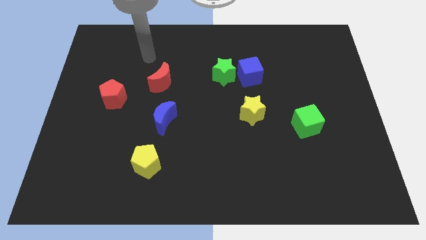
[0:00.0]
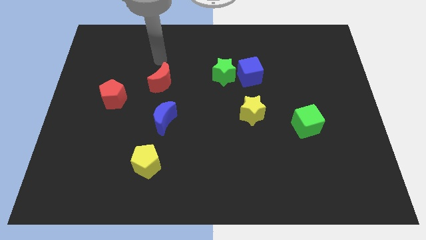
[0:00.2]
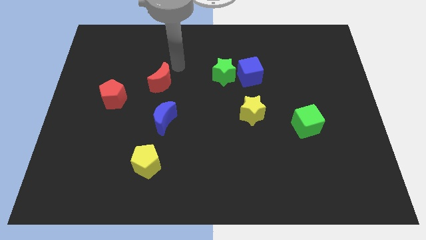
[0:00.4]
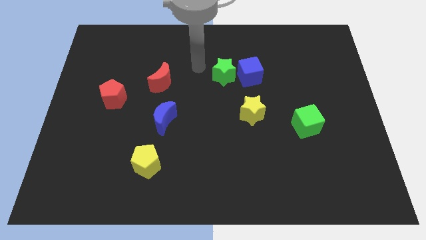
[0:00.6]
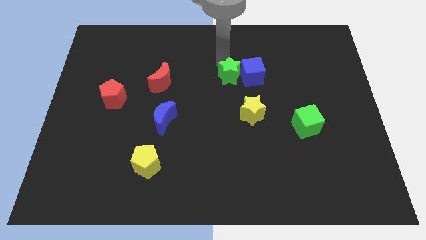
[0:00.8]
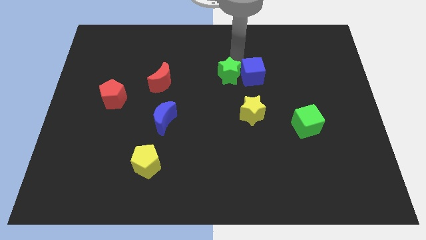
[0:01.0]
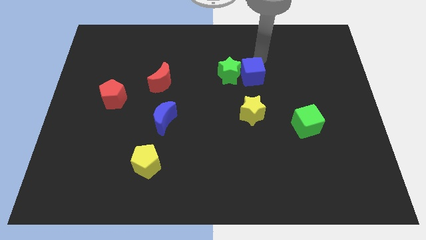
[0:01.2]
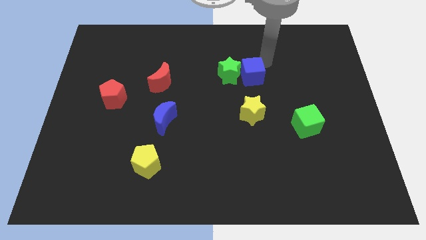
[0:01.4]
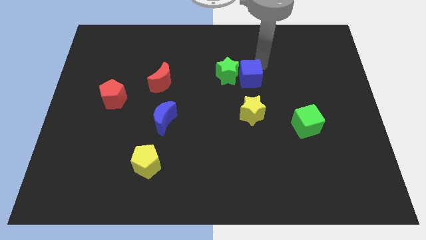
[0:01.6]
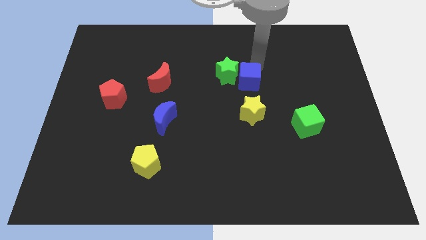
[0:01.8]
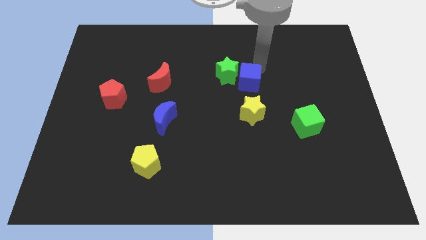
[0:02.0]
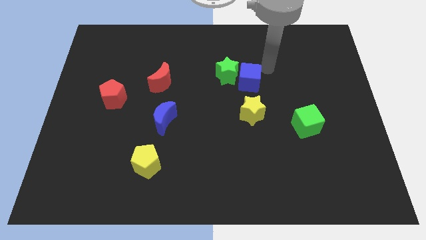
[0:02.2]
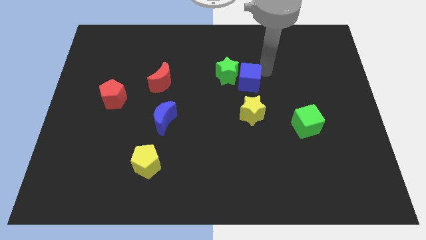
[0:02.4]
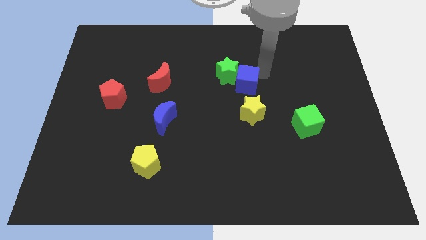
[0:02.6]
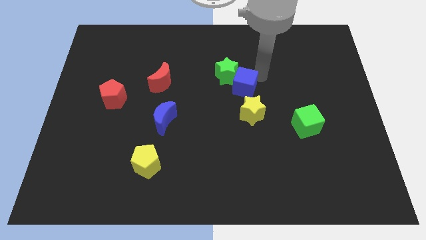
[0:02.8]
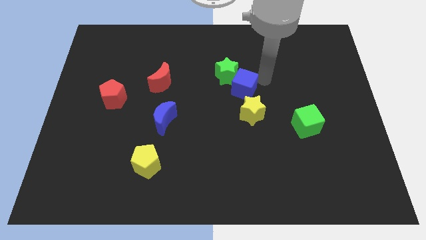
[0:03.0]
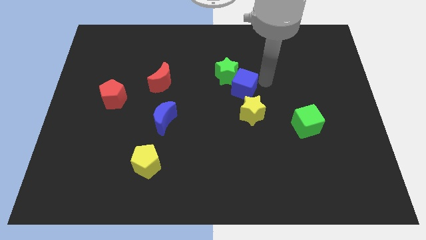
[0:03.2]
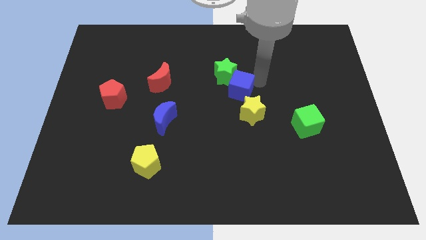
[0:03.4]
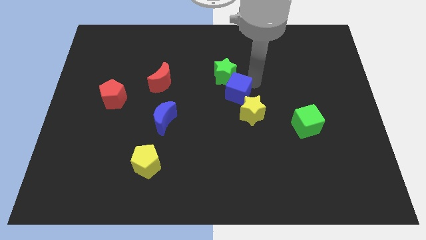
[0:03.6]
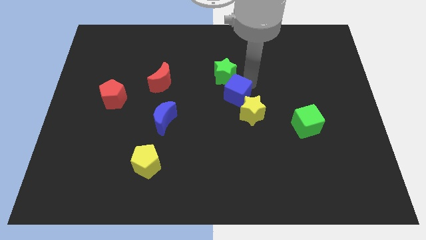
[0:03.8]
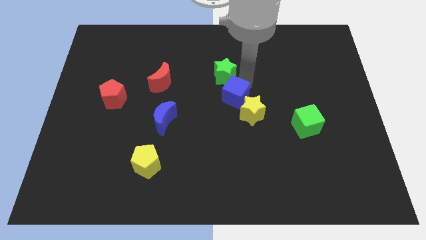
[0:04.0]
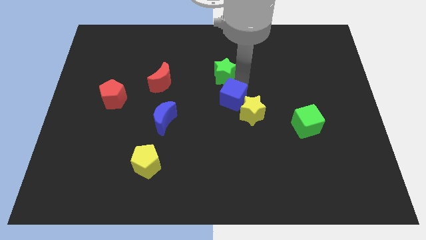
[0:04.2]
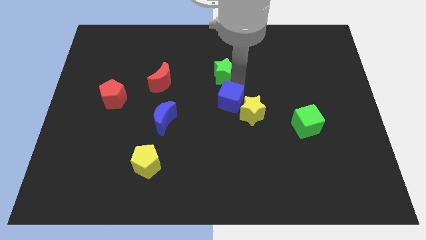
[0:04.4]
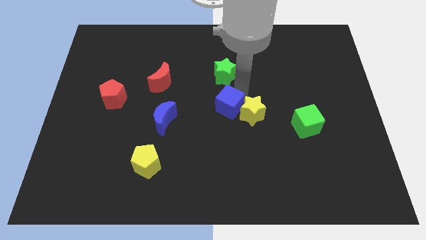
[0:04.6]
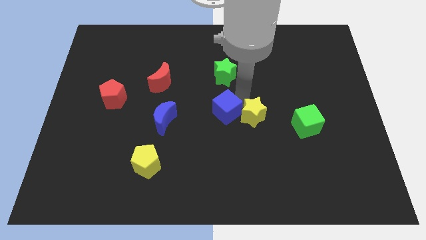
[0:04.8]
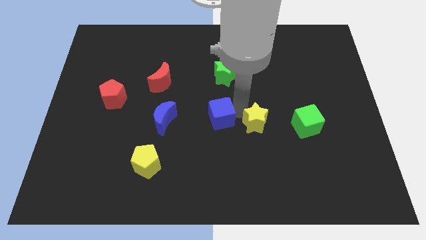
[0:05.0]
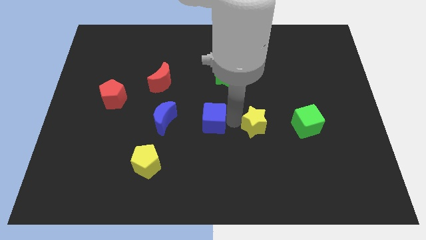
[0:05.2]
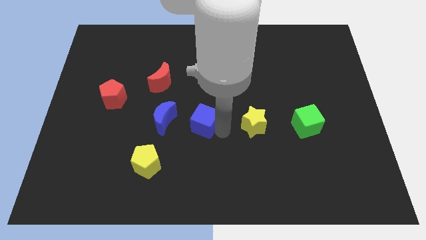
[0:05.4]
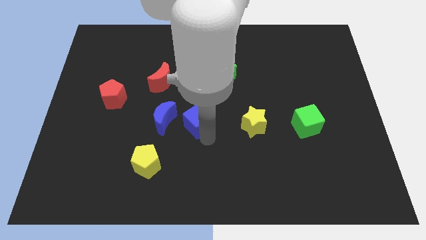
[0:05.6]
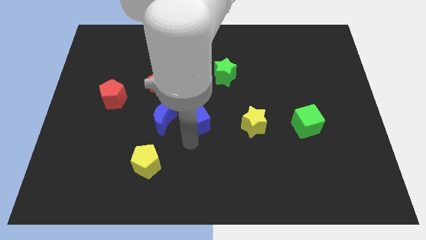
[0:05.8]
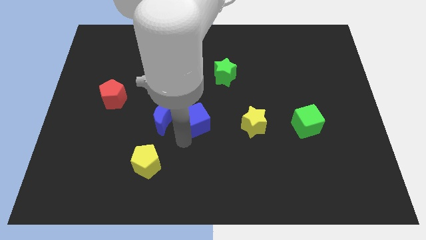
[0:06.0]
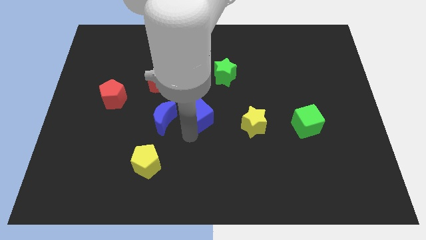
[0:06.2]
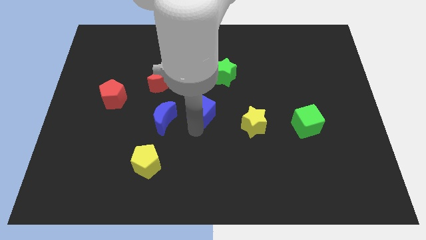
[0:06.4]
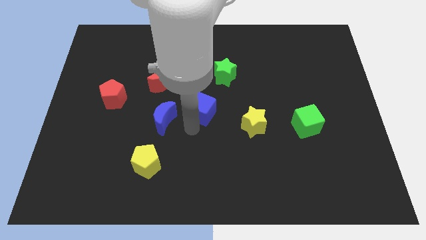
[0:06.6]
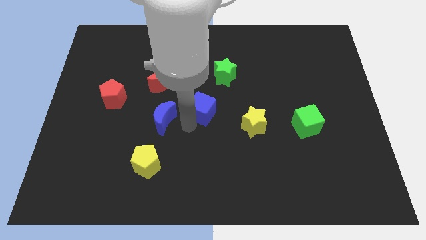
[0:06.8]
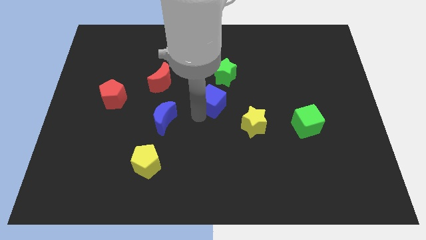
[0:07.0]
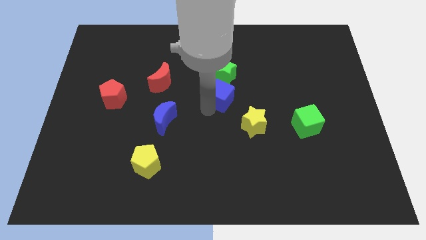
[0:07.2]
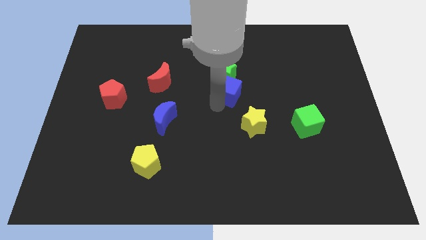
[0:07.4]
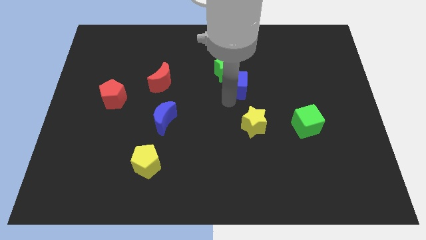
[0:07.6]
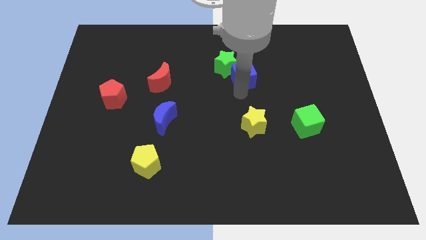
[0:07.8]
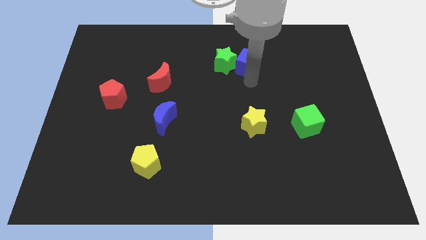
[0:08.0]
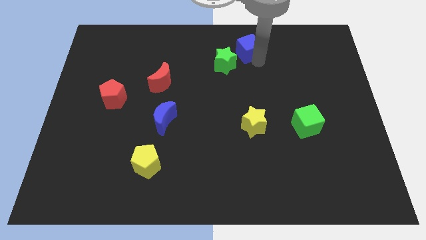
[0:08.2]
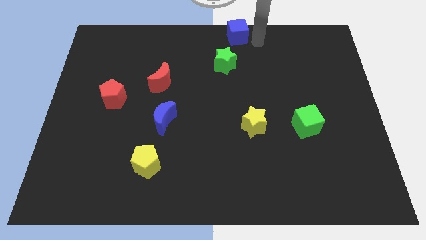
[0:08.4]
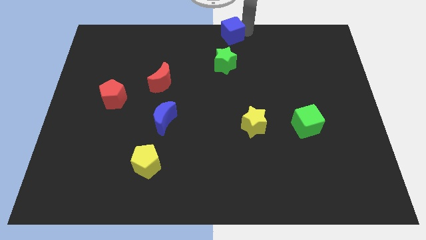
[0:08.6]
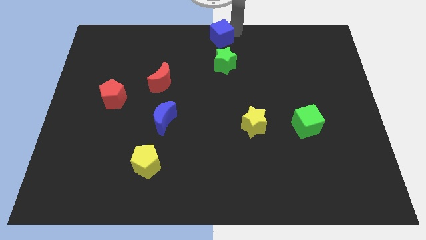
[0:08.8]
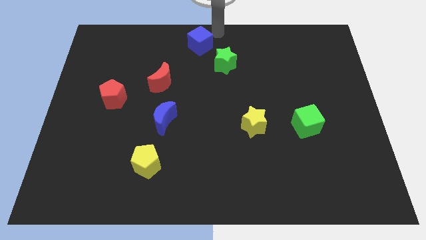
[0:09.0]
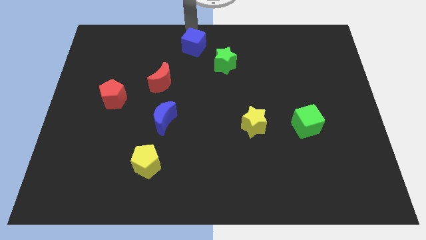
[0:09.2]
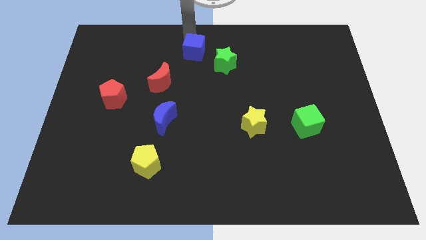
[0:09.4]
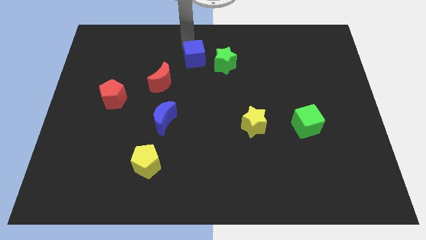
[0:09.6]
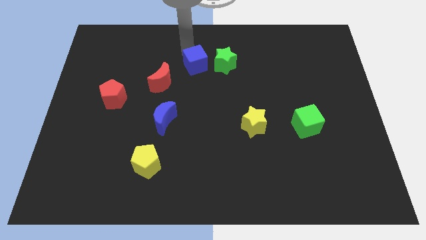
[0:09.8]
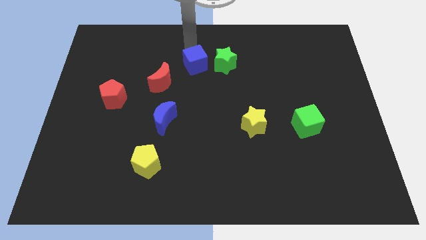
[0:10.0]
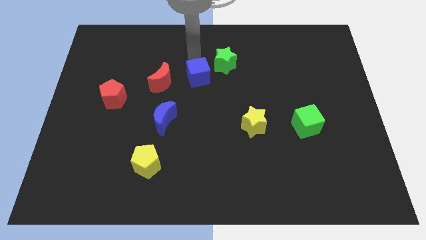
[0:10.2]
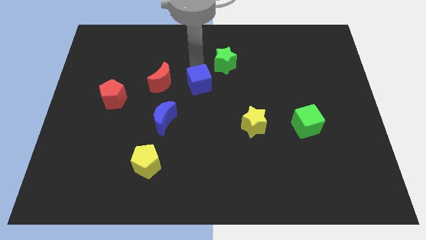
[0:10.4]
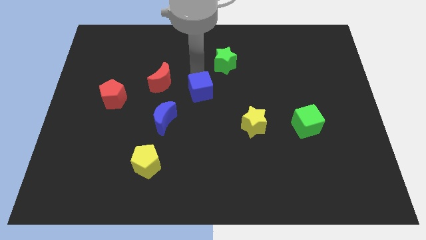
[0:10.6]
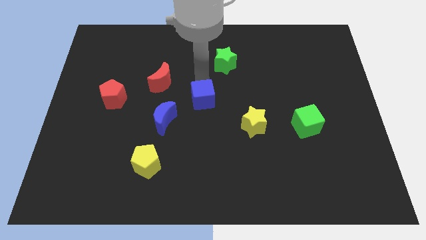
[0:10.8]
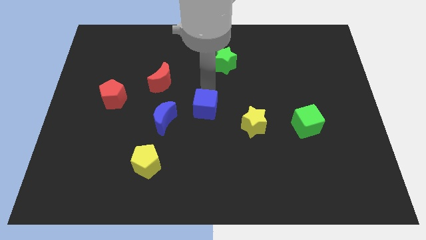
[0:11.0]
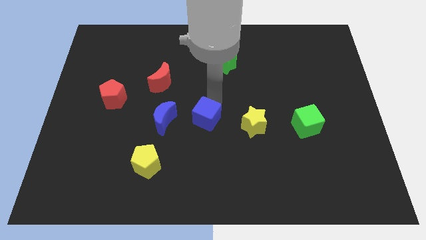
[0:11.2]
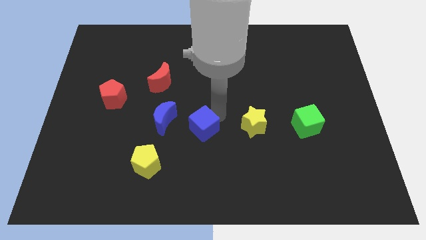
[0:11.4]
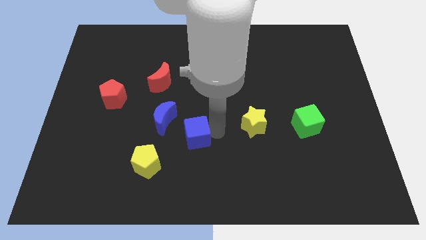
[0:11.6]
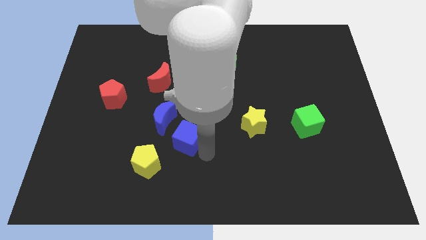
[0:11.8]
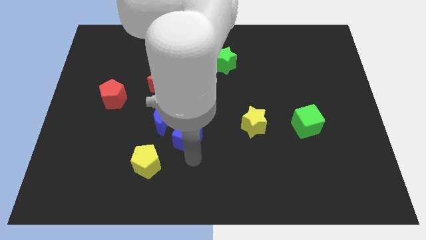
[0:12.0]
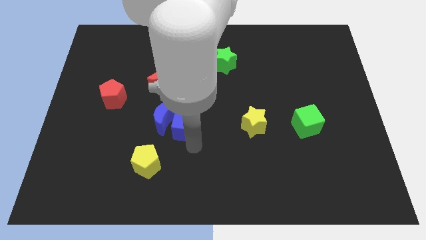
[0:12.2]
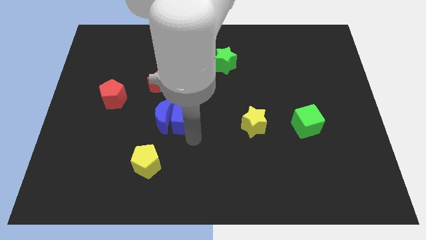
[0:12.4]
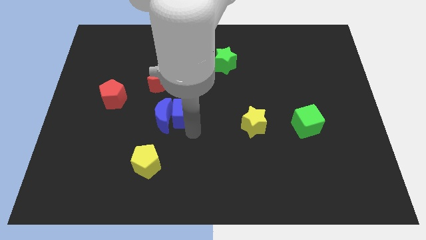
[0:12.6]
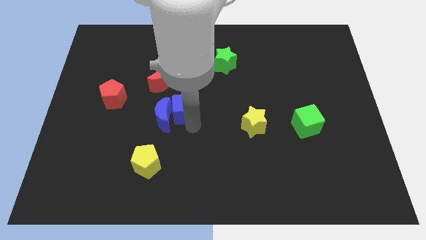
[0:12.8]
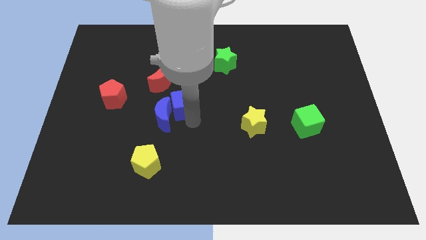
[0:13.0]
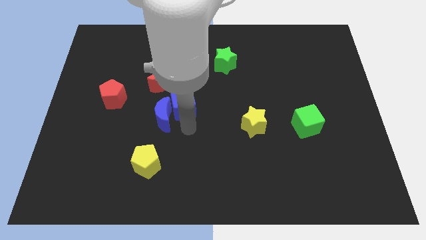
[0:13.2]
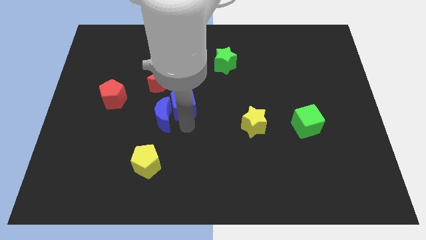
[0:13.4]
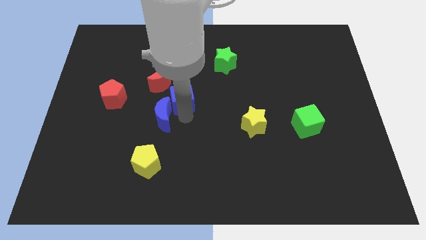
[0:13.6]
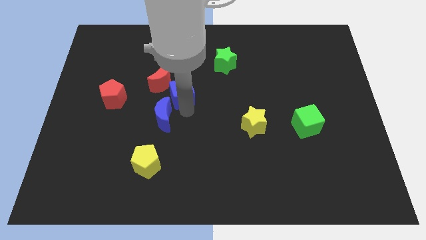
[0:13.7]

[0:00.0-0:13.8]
put the blue cube right of the red pentagon

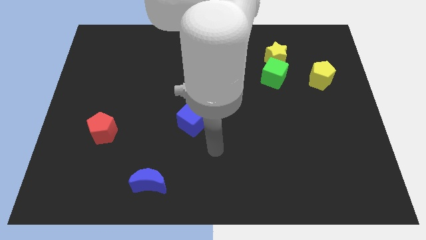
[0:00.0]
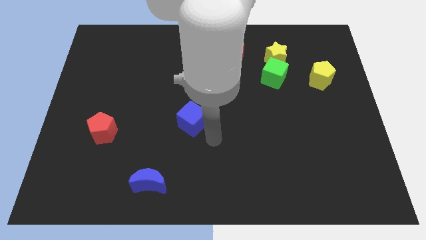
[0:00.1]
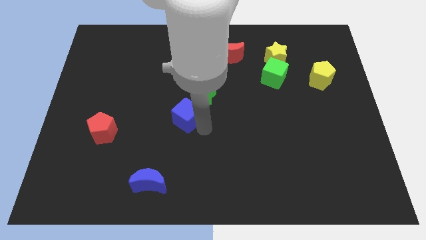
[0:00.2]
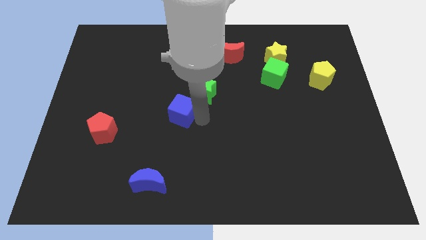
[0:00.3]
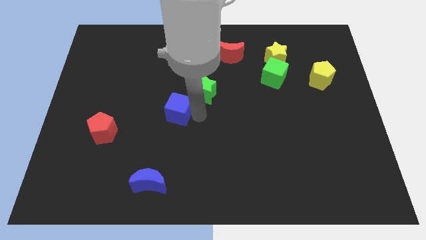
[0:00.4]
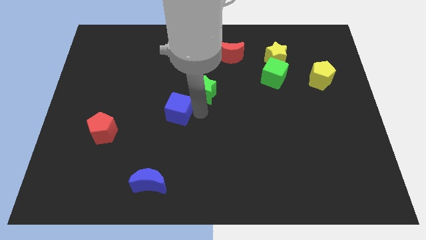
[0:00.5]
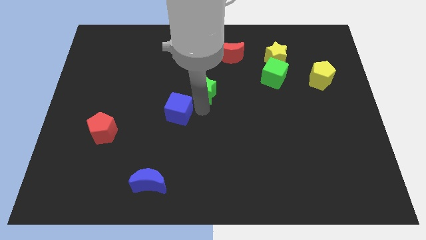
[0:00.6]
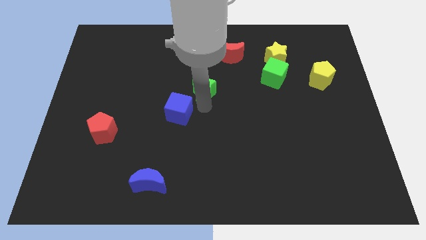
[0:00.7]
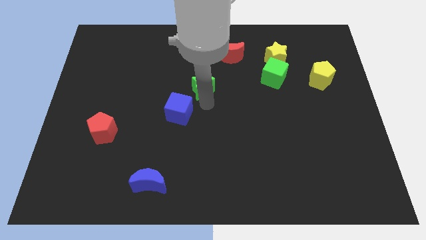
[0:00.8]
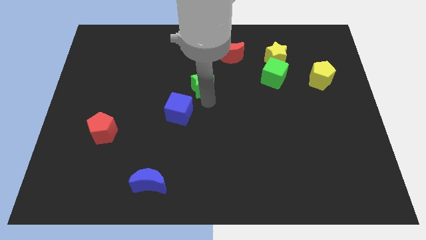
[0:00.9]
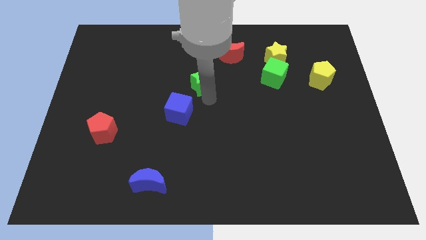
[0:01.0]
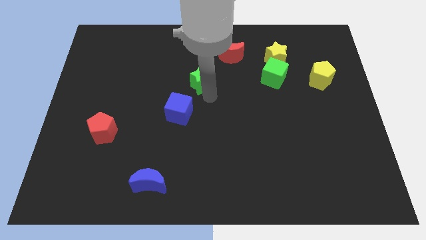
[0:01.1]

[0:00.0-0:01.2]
put the green star to the bottom left of the red moon
